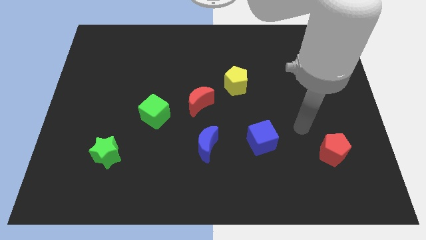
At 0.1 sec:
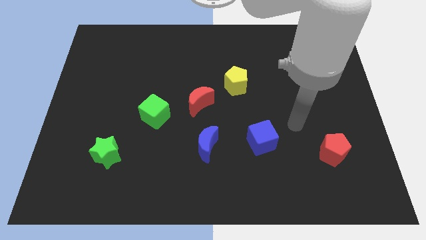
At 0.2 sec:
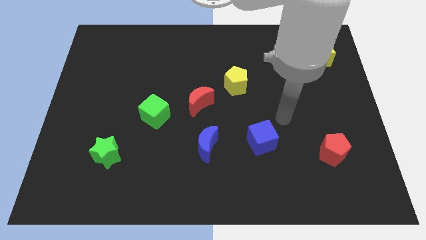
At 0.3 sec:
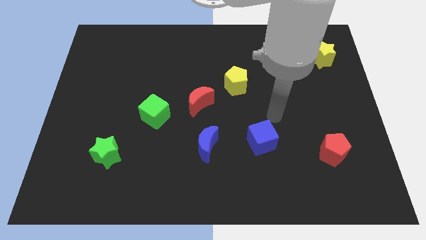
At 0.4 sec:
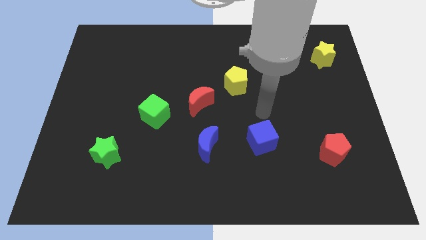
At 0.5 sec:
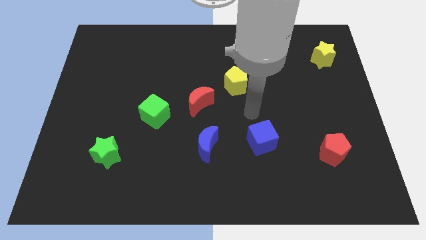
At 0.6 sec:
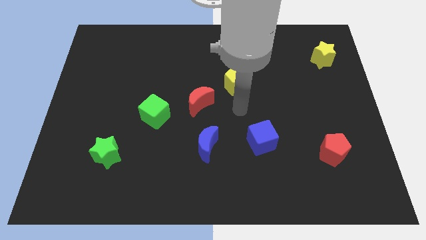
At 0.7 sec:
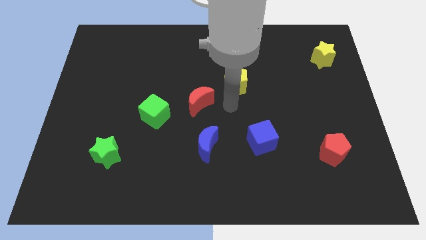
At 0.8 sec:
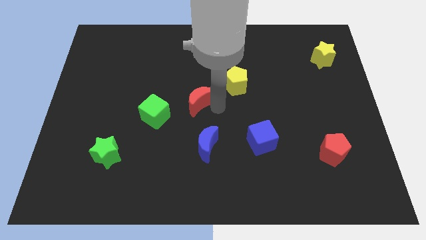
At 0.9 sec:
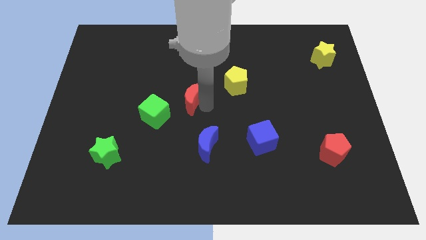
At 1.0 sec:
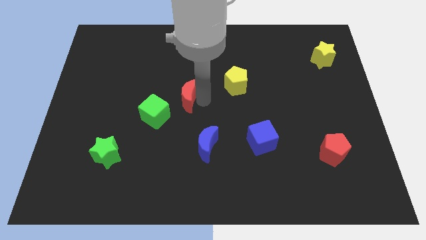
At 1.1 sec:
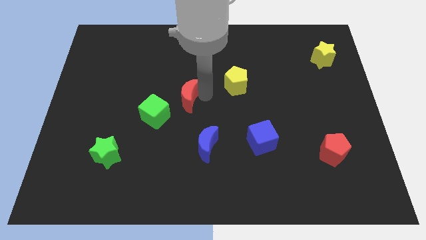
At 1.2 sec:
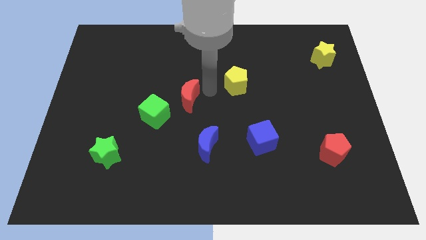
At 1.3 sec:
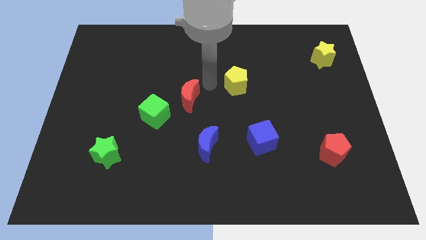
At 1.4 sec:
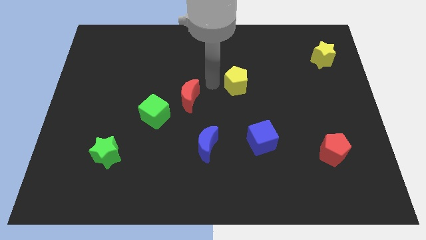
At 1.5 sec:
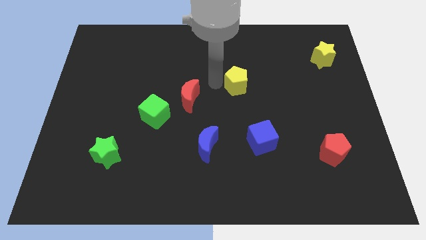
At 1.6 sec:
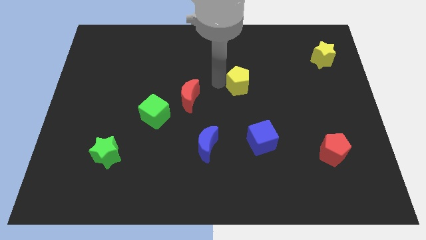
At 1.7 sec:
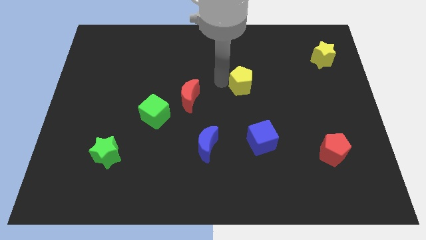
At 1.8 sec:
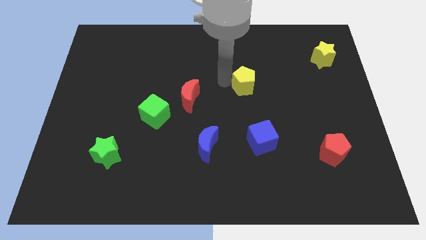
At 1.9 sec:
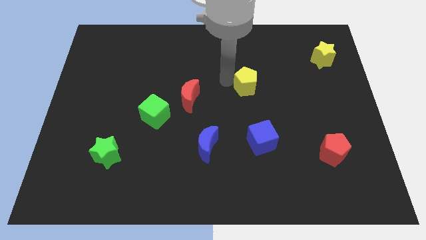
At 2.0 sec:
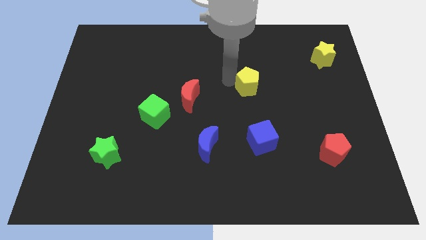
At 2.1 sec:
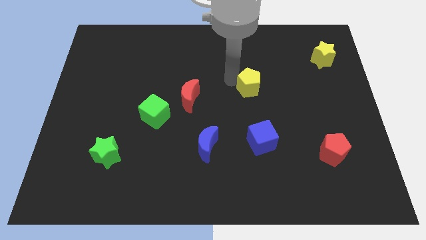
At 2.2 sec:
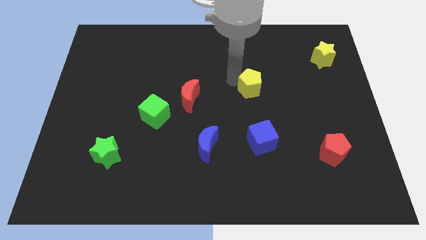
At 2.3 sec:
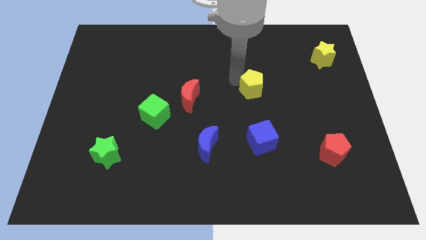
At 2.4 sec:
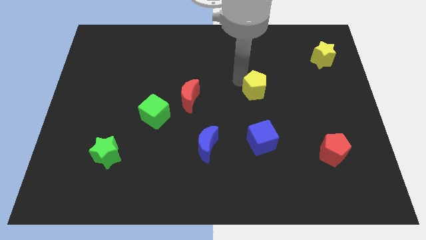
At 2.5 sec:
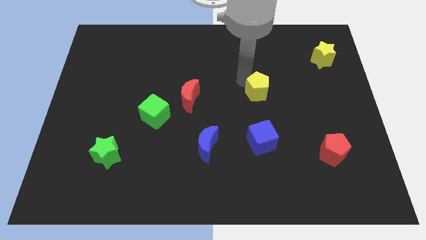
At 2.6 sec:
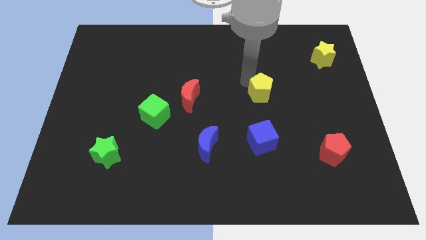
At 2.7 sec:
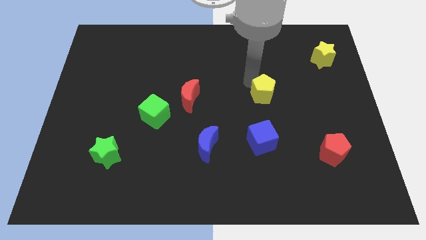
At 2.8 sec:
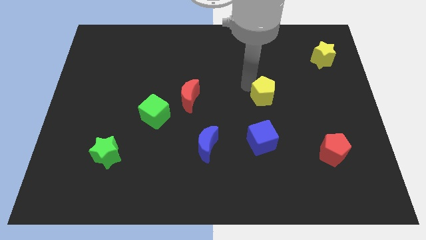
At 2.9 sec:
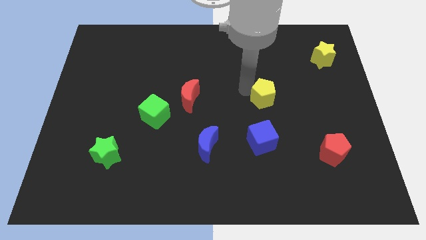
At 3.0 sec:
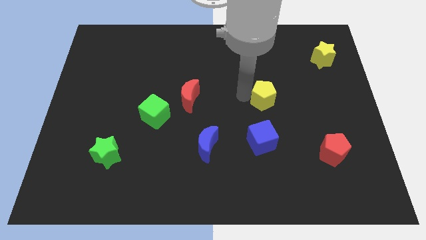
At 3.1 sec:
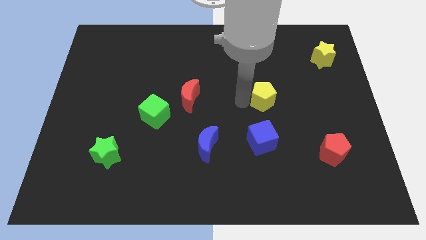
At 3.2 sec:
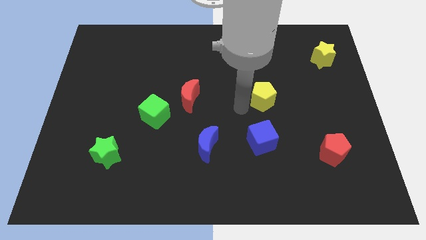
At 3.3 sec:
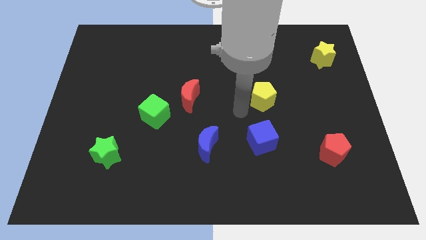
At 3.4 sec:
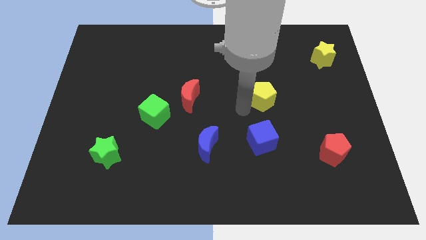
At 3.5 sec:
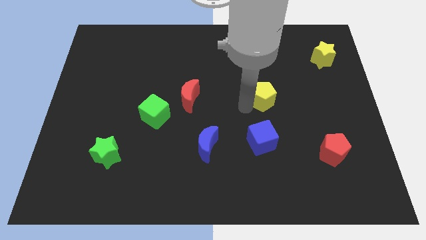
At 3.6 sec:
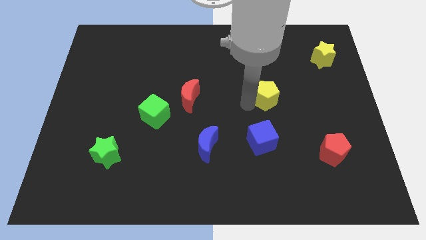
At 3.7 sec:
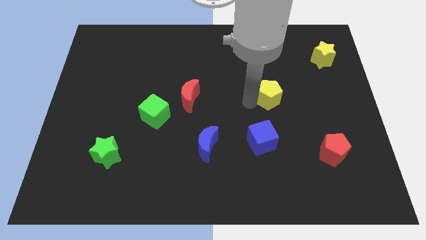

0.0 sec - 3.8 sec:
push the yellow pentagon to the right slightly

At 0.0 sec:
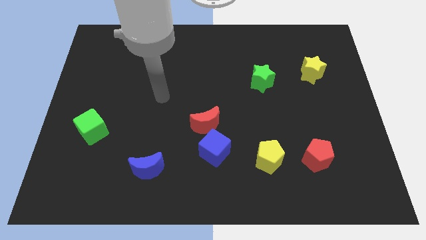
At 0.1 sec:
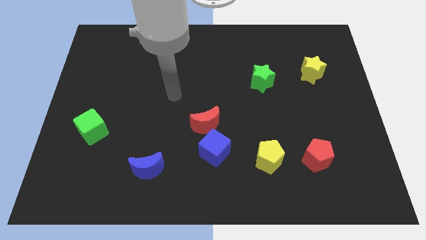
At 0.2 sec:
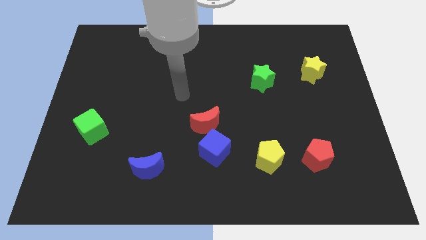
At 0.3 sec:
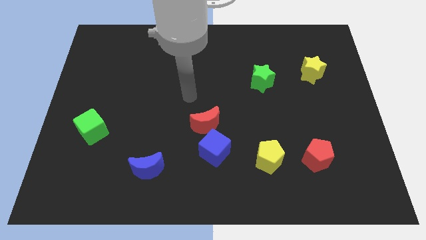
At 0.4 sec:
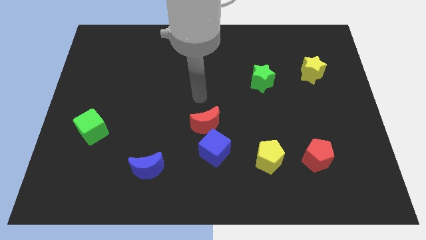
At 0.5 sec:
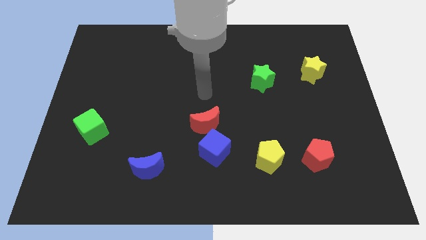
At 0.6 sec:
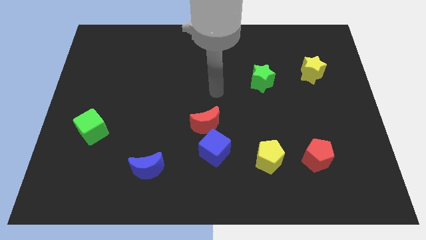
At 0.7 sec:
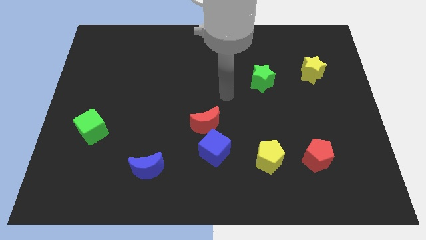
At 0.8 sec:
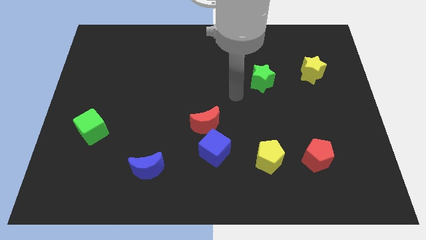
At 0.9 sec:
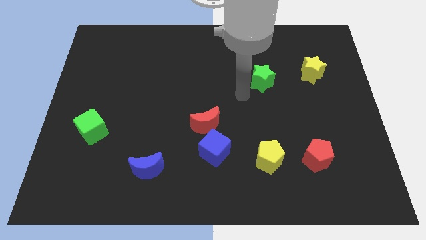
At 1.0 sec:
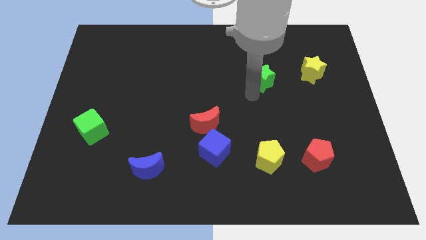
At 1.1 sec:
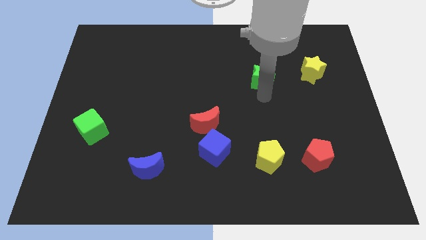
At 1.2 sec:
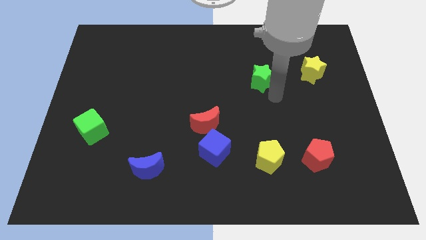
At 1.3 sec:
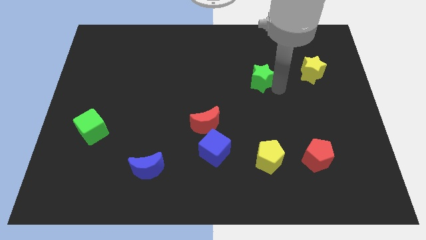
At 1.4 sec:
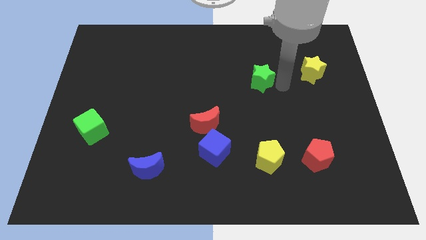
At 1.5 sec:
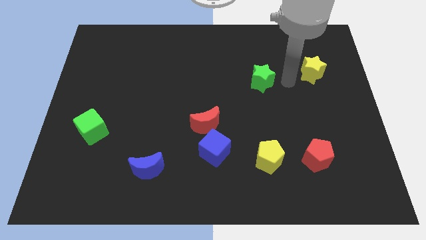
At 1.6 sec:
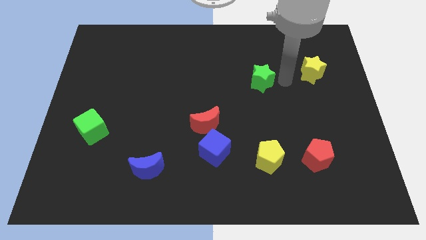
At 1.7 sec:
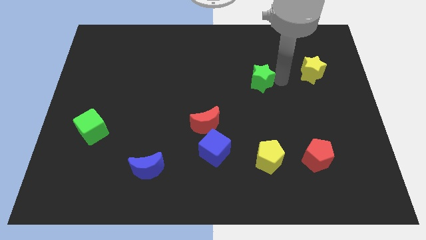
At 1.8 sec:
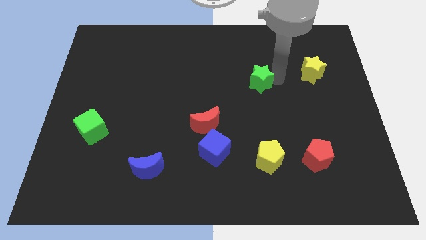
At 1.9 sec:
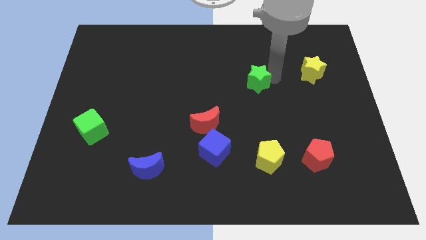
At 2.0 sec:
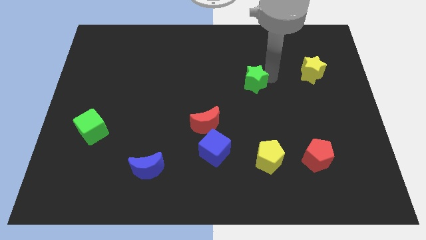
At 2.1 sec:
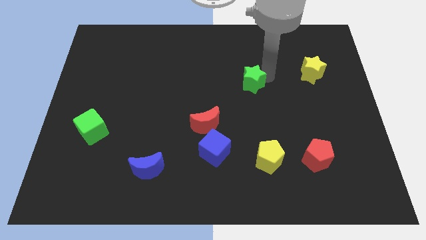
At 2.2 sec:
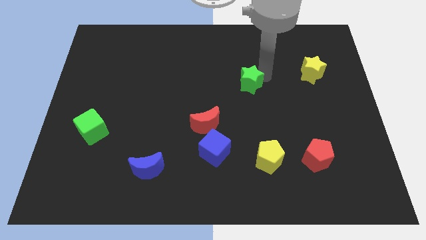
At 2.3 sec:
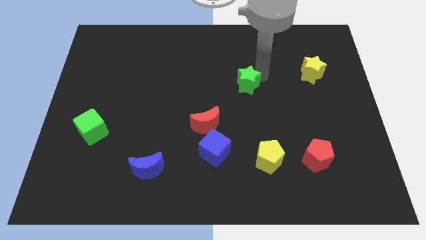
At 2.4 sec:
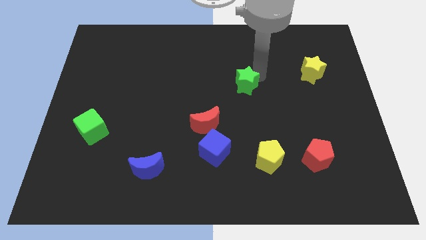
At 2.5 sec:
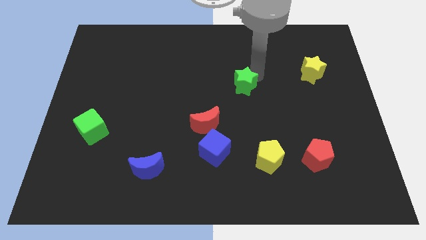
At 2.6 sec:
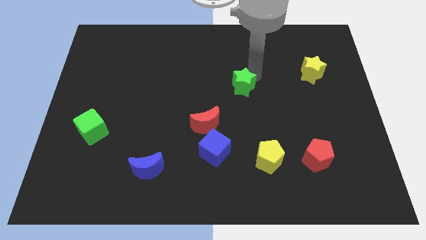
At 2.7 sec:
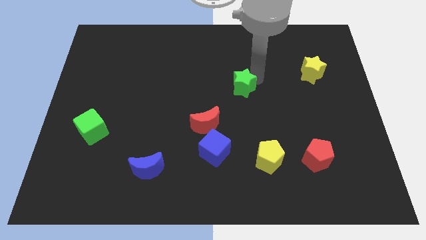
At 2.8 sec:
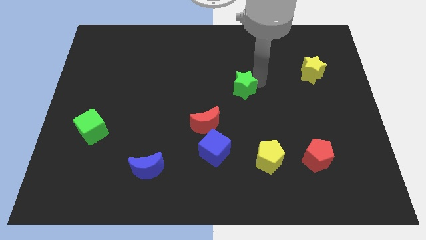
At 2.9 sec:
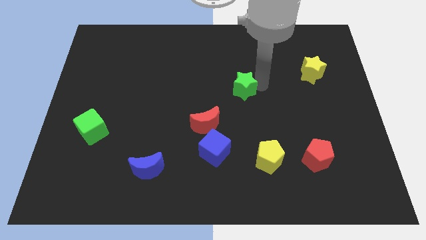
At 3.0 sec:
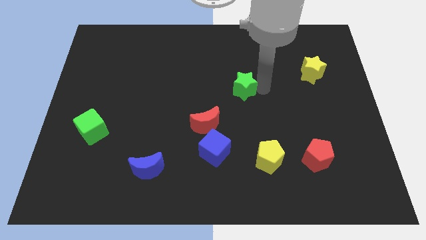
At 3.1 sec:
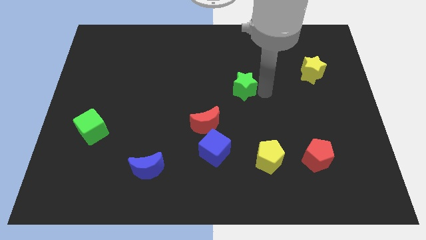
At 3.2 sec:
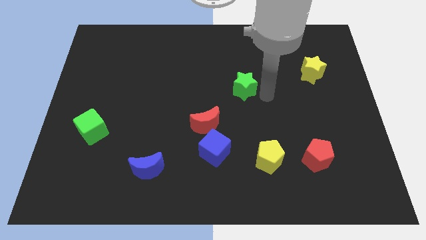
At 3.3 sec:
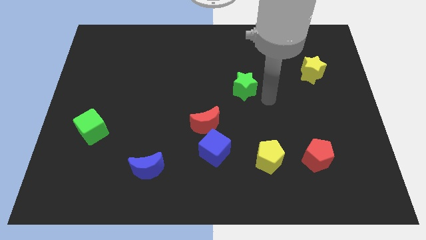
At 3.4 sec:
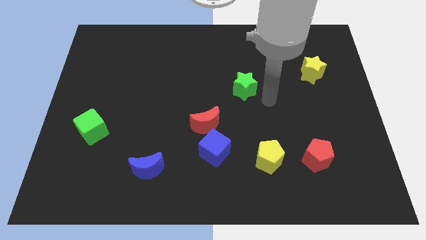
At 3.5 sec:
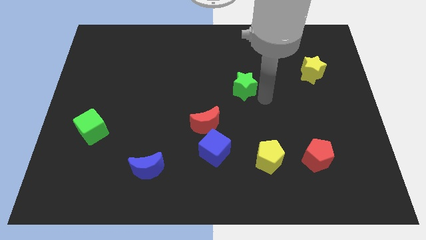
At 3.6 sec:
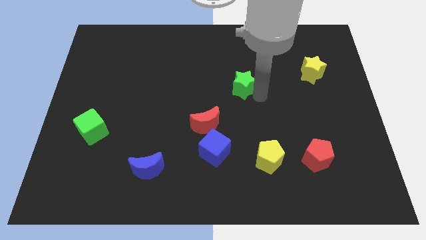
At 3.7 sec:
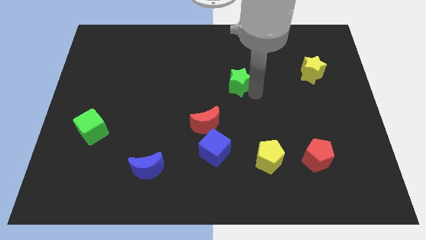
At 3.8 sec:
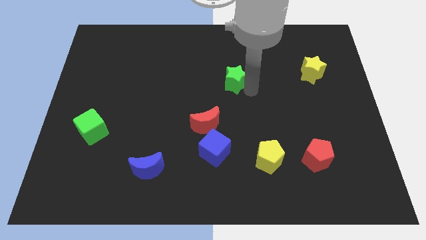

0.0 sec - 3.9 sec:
slide the green star left a bit

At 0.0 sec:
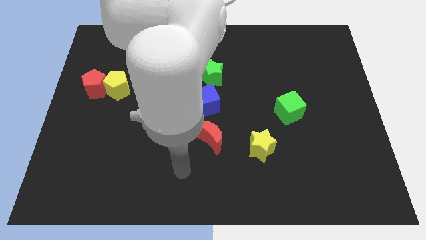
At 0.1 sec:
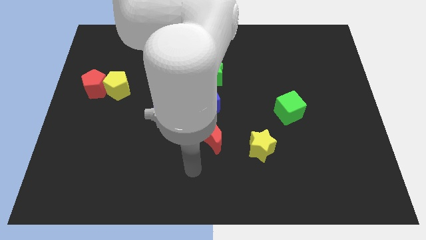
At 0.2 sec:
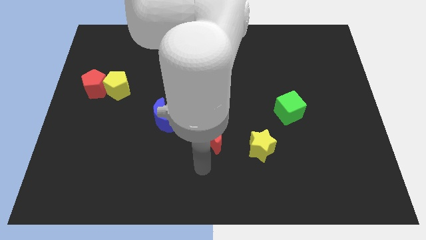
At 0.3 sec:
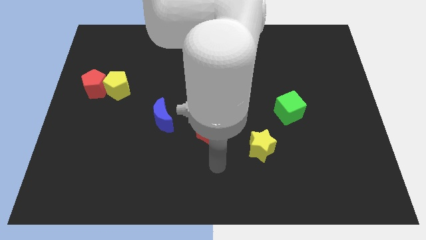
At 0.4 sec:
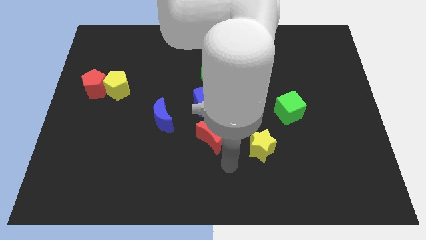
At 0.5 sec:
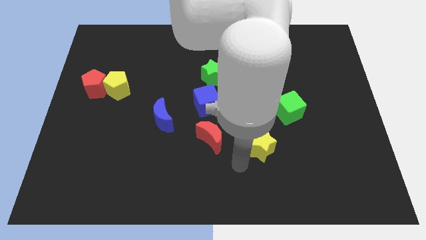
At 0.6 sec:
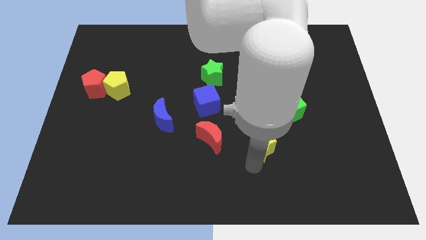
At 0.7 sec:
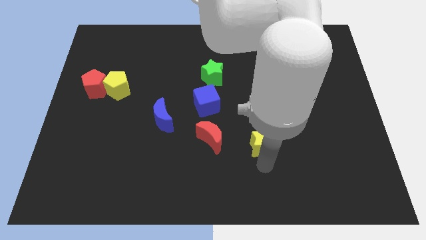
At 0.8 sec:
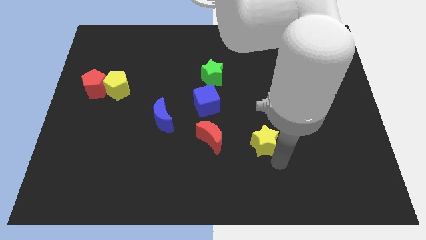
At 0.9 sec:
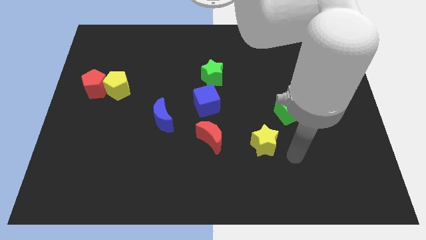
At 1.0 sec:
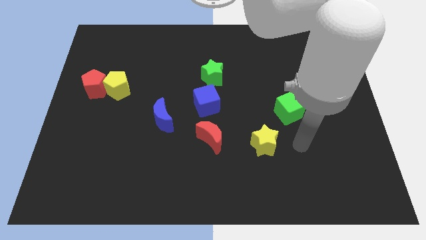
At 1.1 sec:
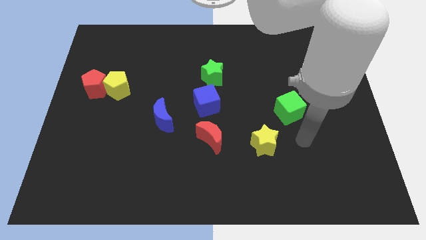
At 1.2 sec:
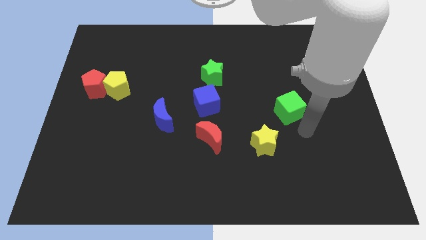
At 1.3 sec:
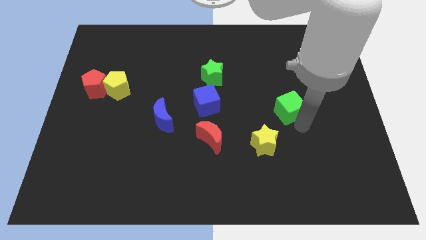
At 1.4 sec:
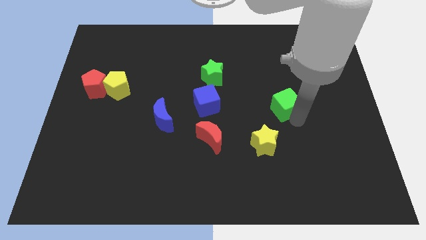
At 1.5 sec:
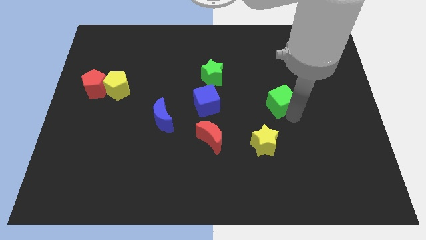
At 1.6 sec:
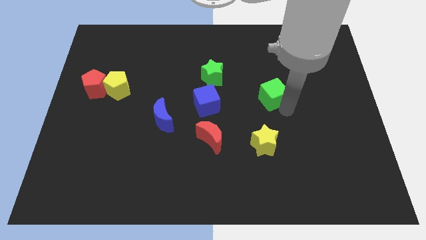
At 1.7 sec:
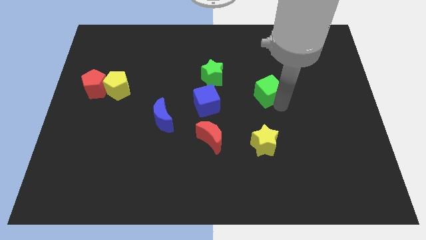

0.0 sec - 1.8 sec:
slide the green cube upwards and to the left diagonally somewhat
